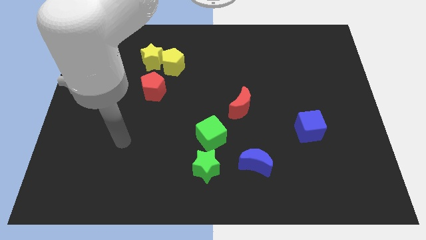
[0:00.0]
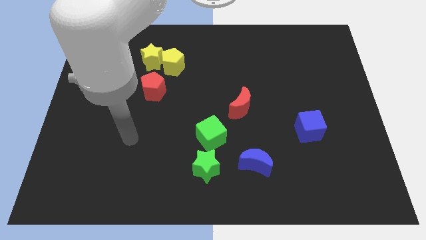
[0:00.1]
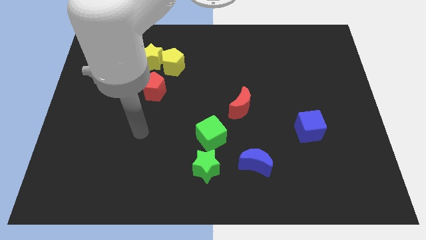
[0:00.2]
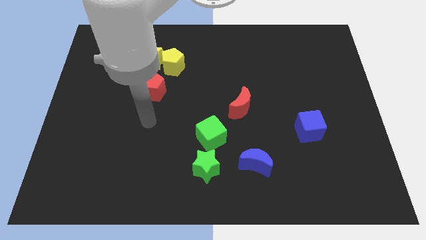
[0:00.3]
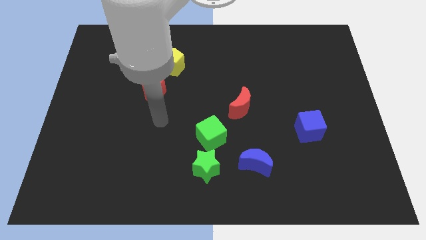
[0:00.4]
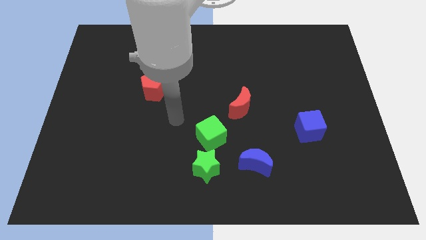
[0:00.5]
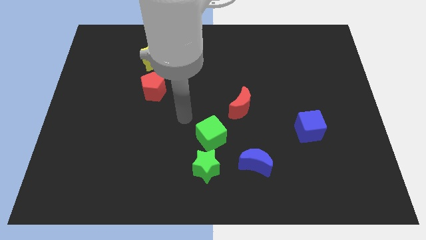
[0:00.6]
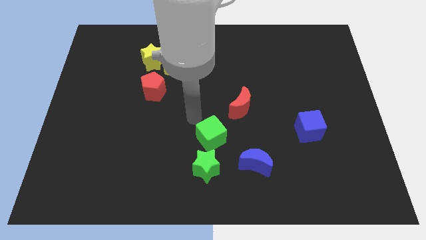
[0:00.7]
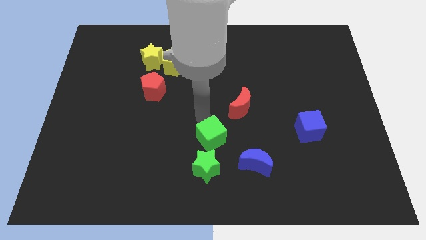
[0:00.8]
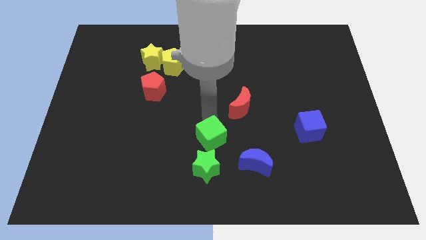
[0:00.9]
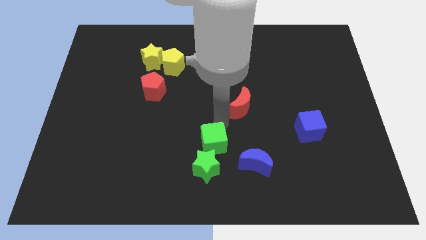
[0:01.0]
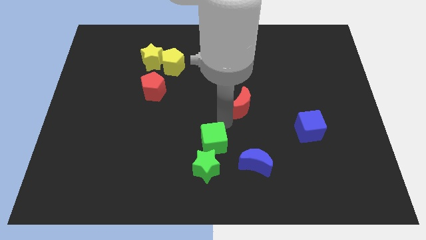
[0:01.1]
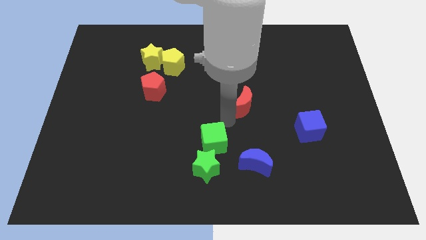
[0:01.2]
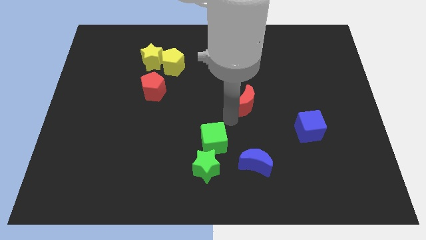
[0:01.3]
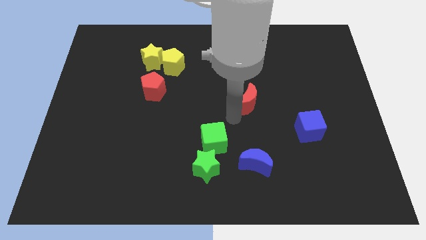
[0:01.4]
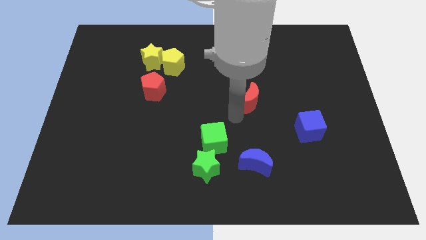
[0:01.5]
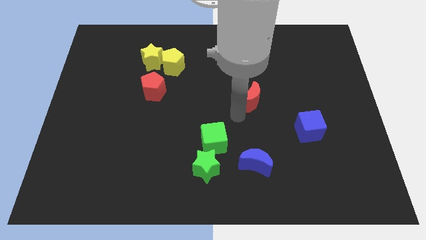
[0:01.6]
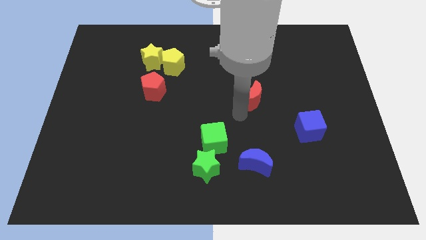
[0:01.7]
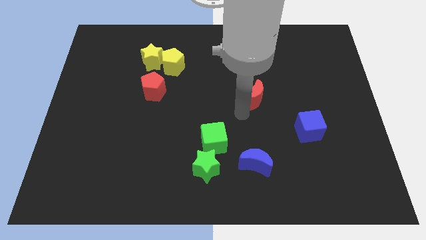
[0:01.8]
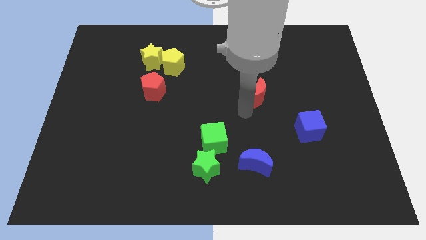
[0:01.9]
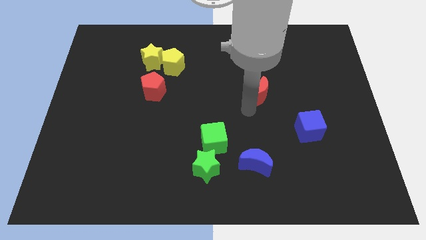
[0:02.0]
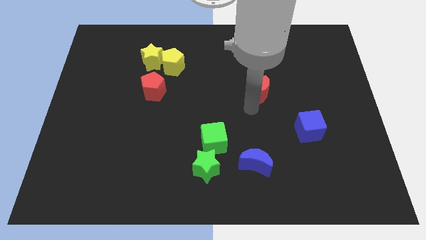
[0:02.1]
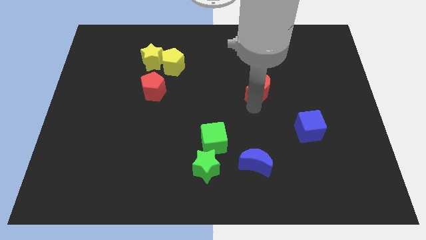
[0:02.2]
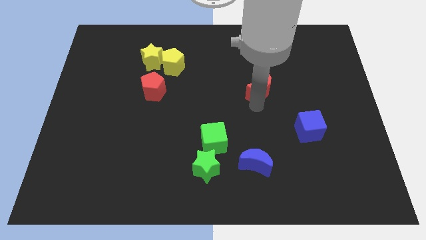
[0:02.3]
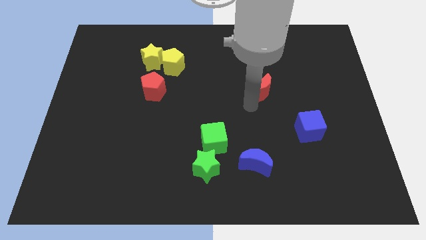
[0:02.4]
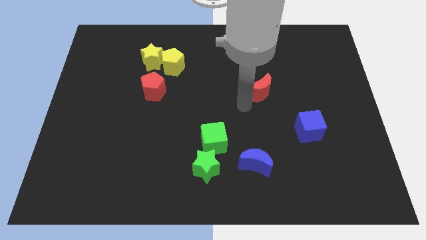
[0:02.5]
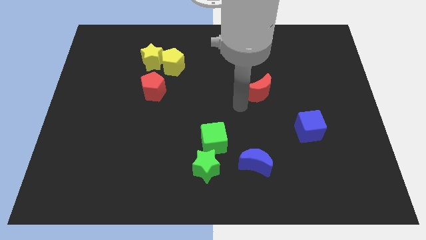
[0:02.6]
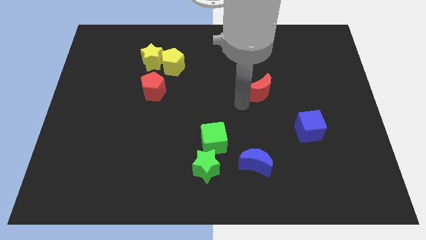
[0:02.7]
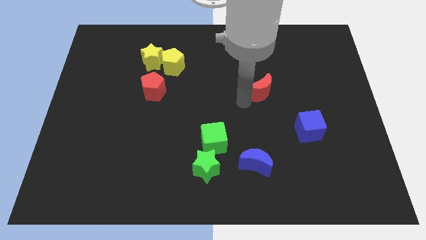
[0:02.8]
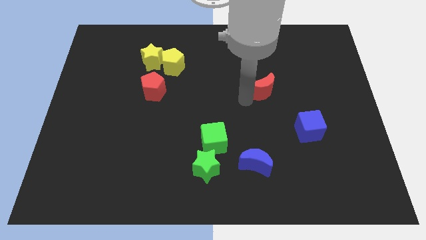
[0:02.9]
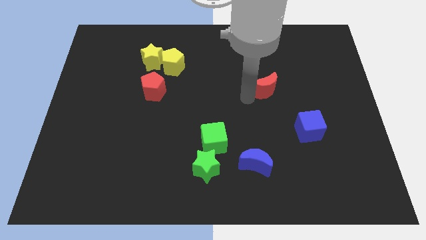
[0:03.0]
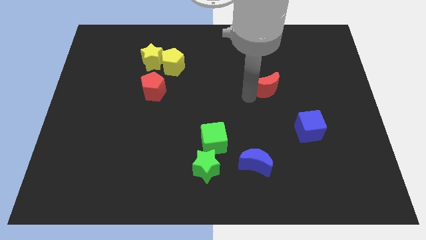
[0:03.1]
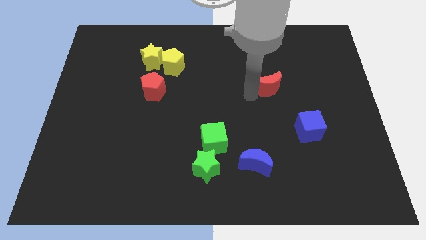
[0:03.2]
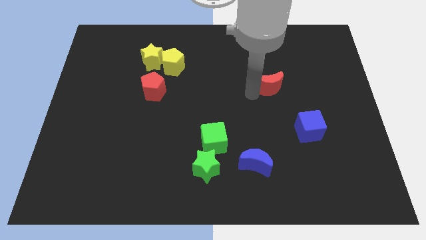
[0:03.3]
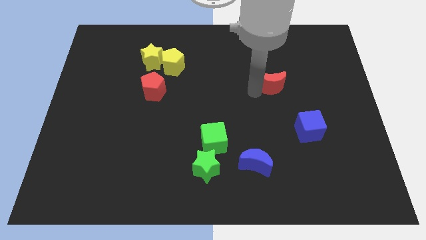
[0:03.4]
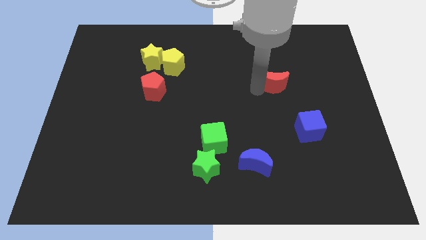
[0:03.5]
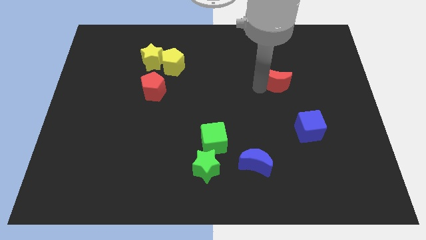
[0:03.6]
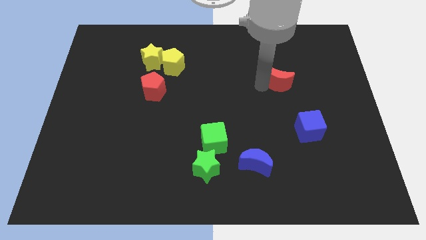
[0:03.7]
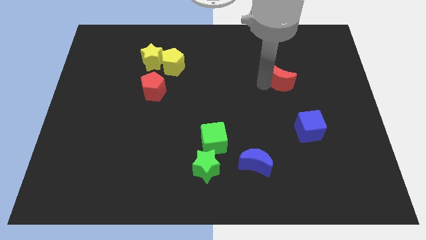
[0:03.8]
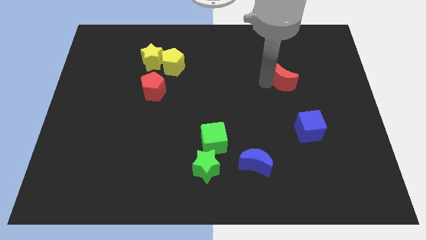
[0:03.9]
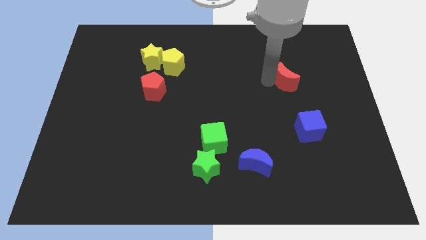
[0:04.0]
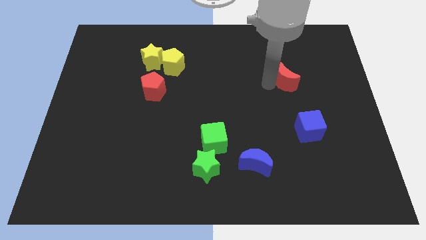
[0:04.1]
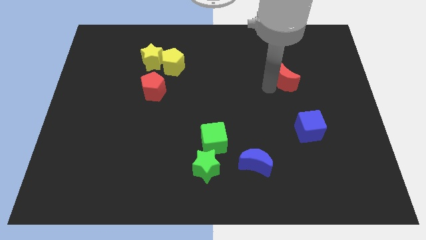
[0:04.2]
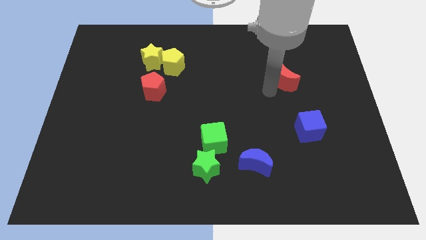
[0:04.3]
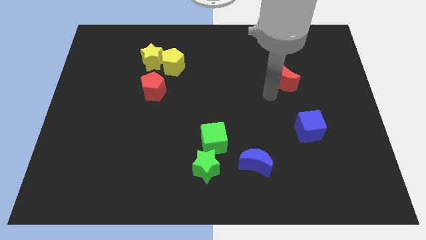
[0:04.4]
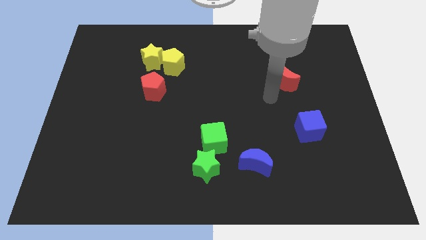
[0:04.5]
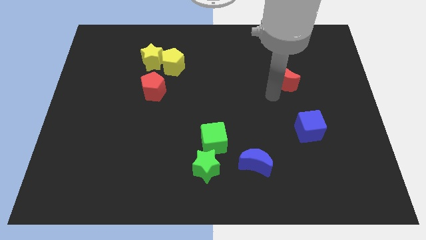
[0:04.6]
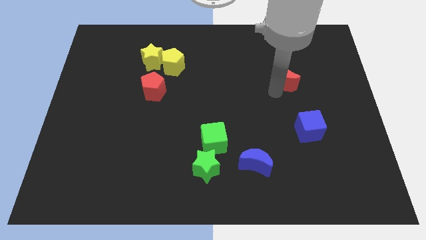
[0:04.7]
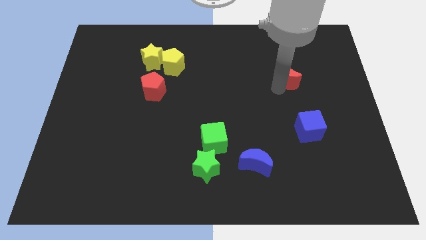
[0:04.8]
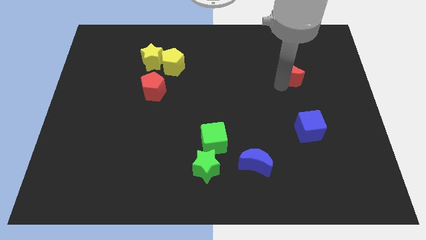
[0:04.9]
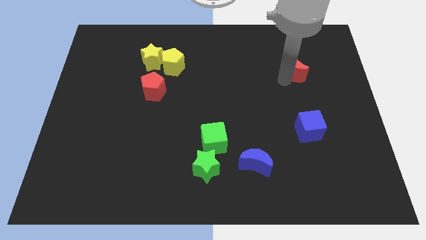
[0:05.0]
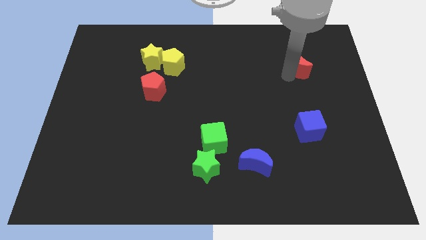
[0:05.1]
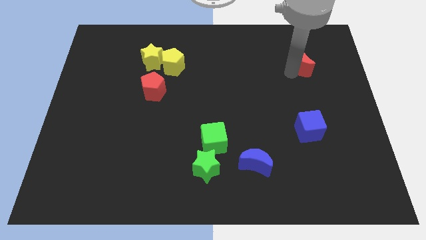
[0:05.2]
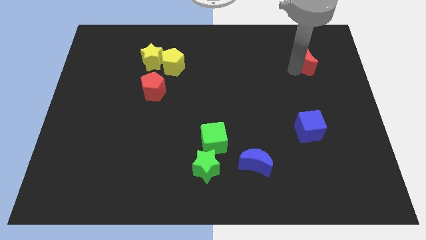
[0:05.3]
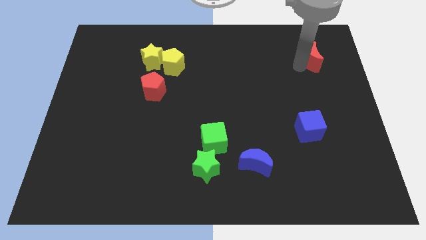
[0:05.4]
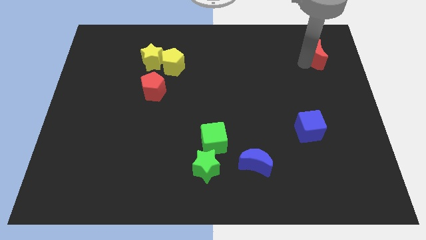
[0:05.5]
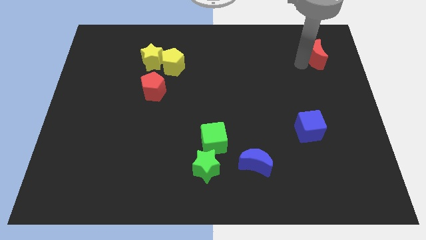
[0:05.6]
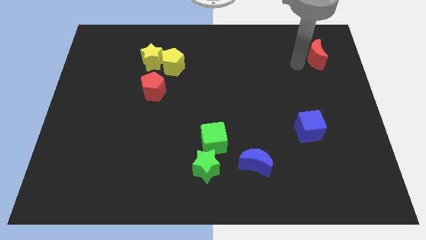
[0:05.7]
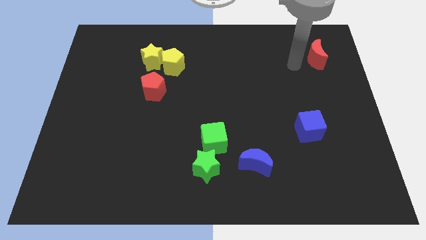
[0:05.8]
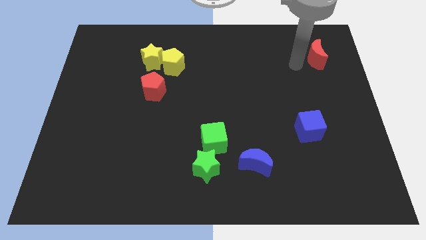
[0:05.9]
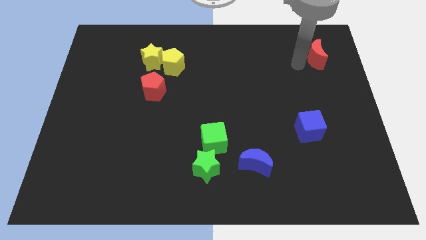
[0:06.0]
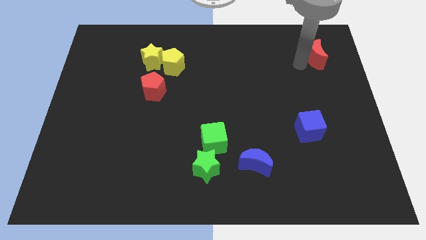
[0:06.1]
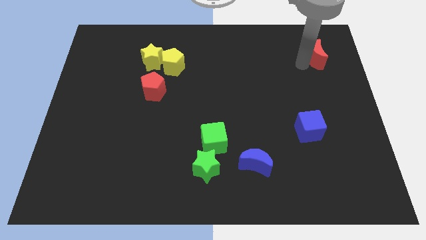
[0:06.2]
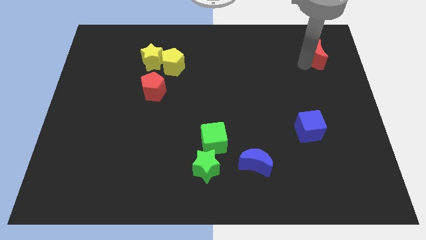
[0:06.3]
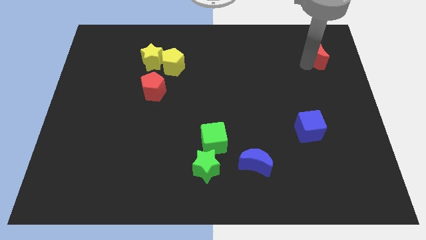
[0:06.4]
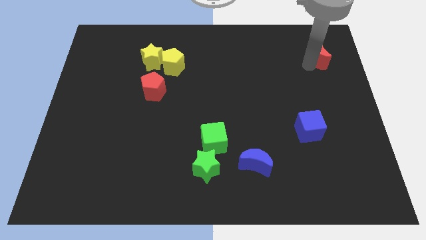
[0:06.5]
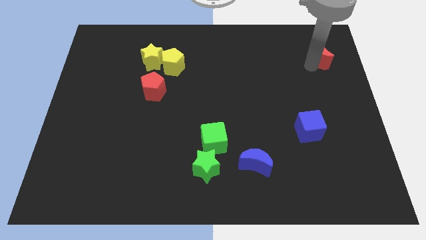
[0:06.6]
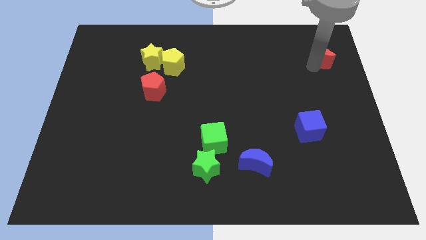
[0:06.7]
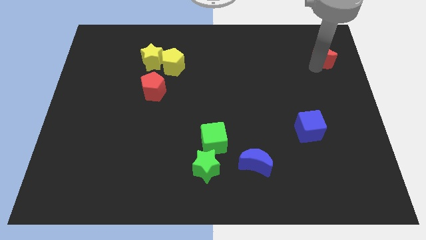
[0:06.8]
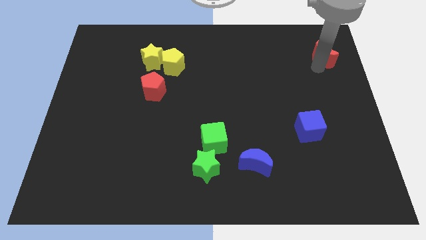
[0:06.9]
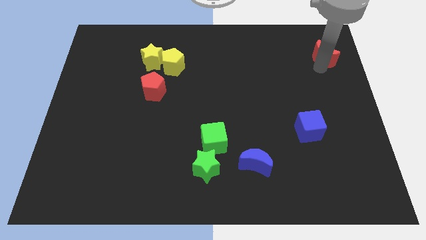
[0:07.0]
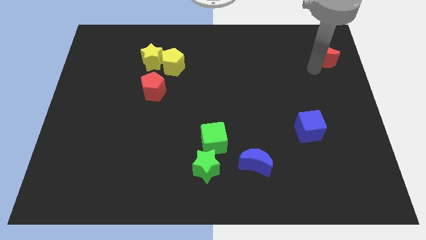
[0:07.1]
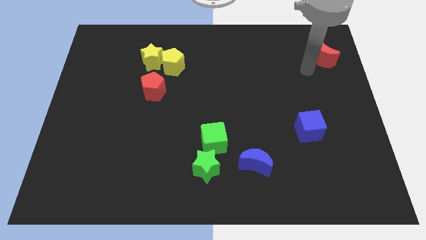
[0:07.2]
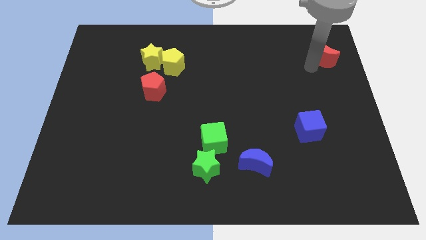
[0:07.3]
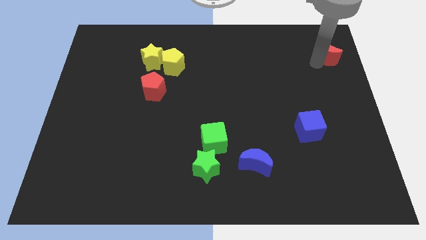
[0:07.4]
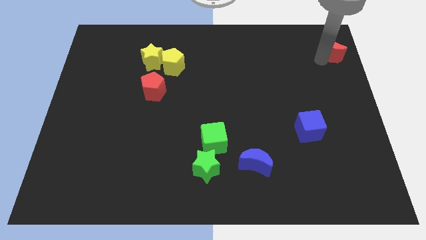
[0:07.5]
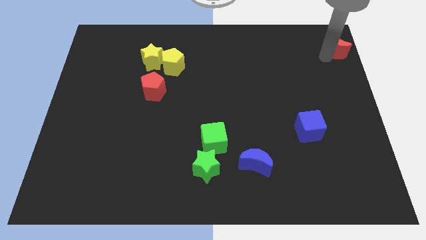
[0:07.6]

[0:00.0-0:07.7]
move the red moon to the top right of the board
